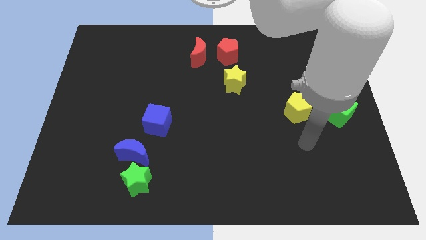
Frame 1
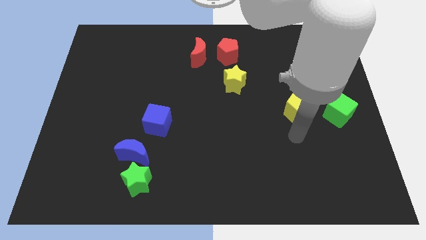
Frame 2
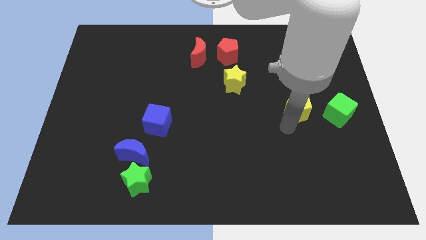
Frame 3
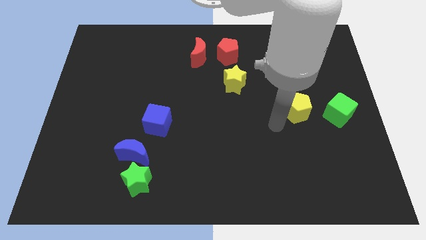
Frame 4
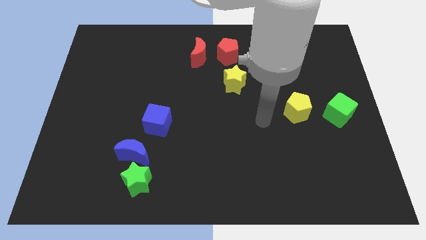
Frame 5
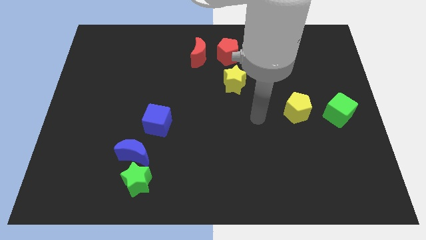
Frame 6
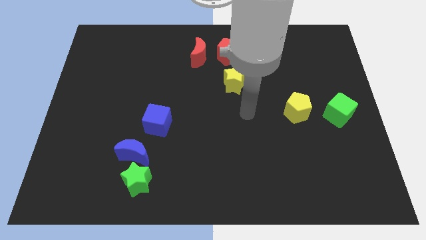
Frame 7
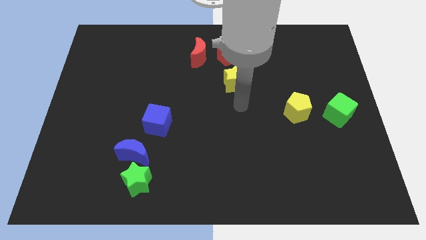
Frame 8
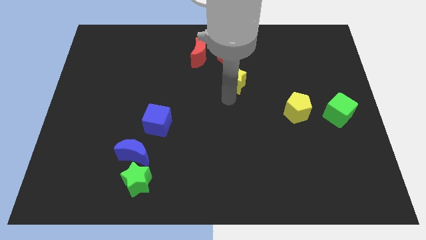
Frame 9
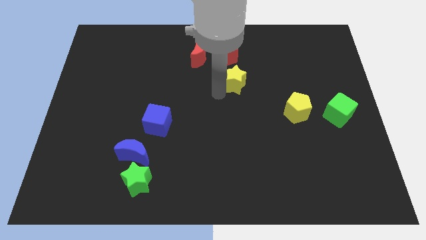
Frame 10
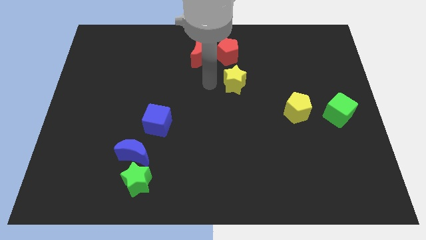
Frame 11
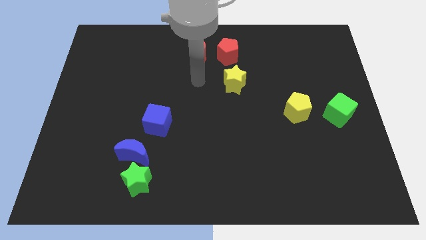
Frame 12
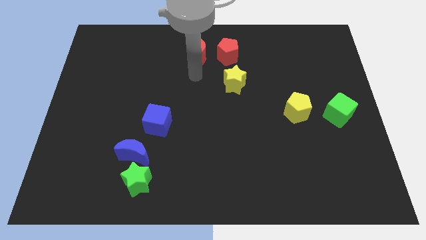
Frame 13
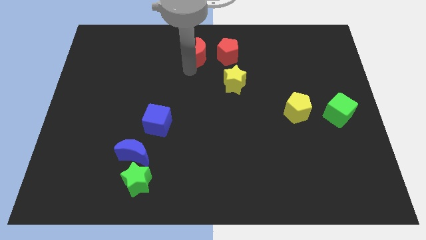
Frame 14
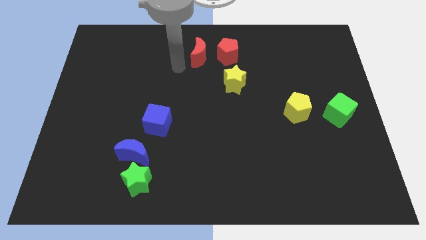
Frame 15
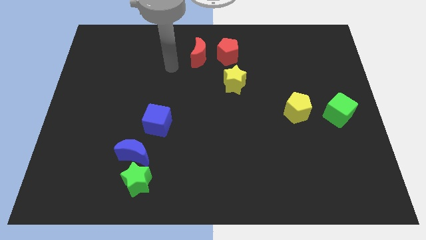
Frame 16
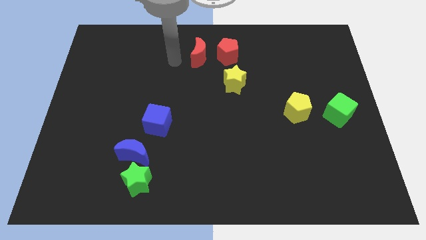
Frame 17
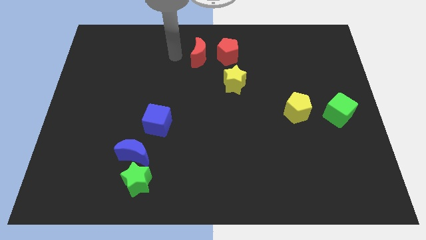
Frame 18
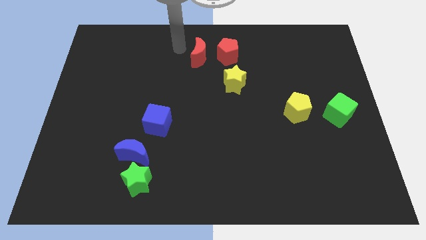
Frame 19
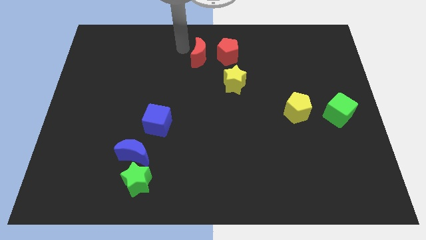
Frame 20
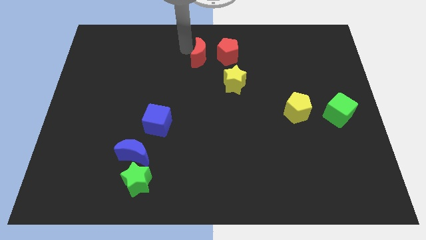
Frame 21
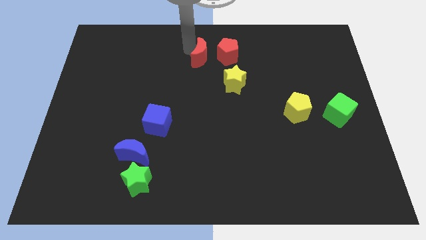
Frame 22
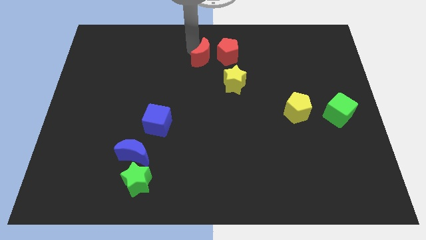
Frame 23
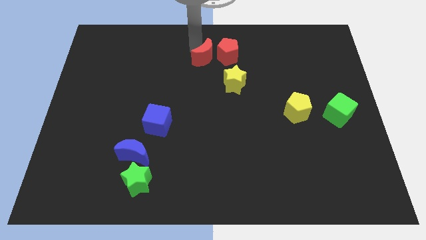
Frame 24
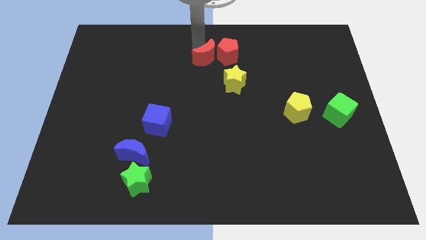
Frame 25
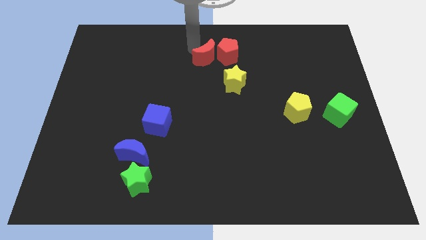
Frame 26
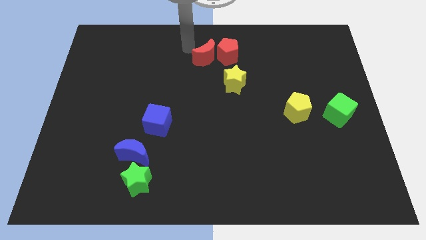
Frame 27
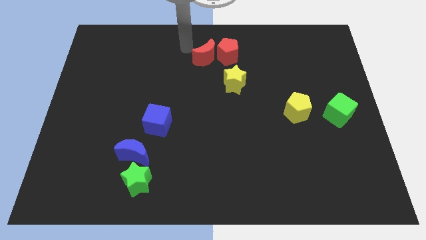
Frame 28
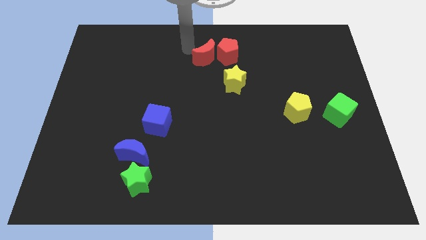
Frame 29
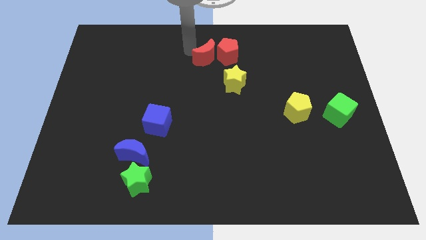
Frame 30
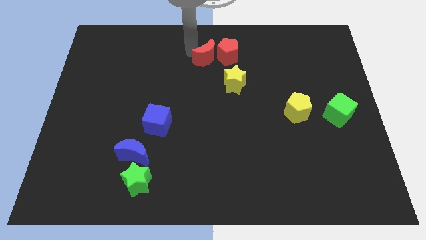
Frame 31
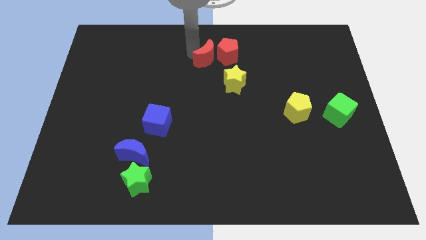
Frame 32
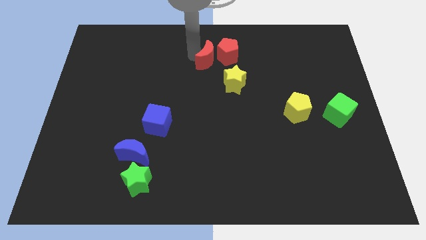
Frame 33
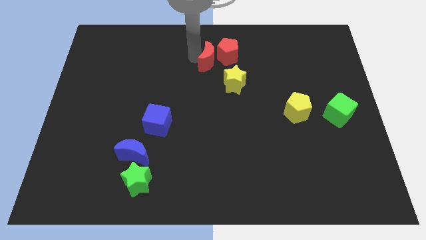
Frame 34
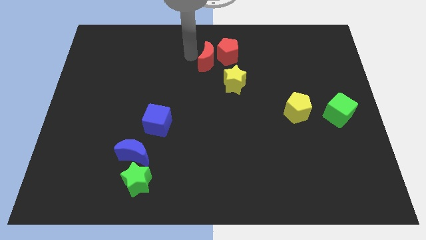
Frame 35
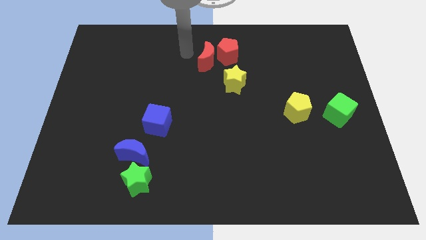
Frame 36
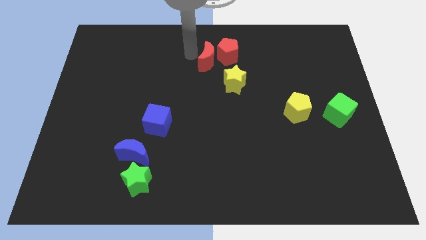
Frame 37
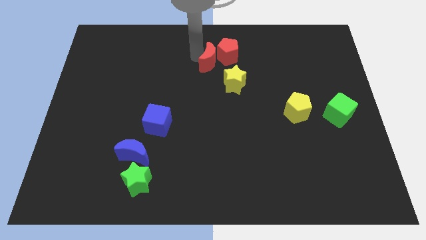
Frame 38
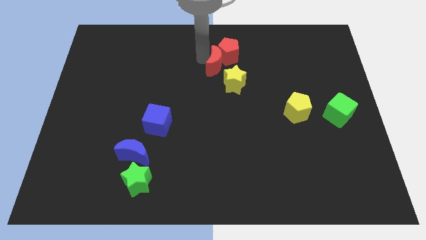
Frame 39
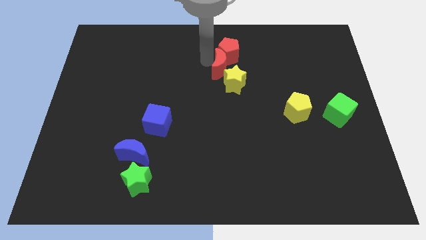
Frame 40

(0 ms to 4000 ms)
slightly slide the red moon diagonally downwards and right

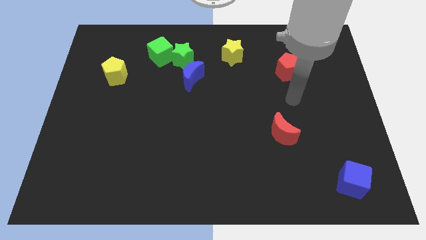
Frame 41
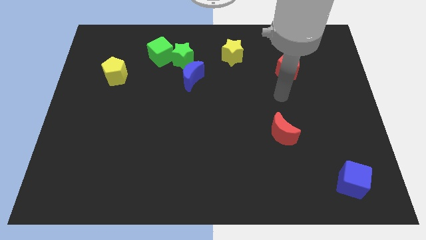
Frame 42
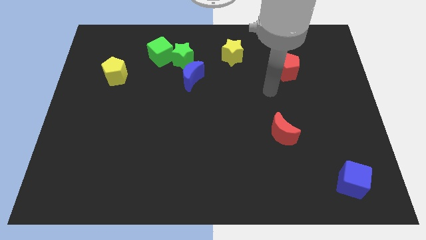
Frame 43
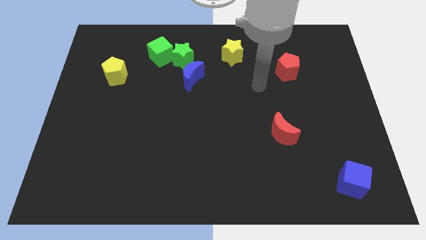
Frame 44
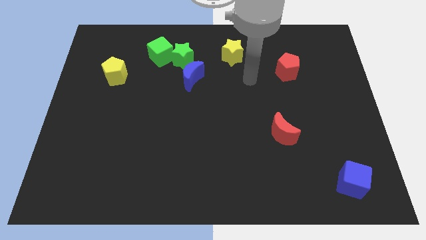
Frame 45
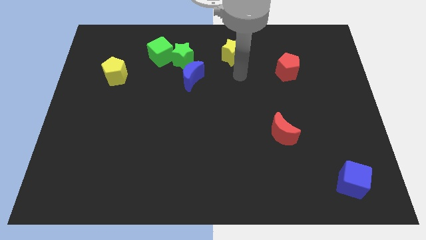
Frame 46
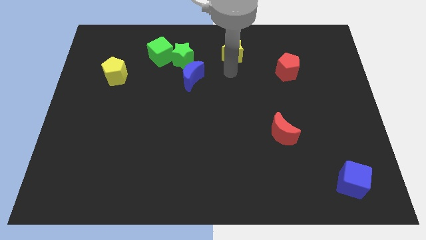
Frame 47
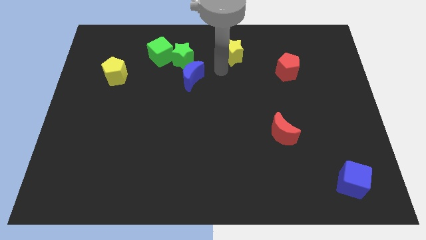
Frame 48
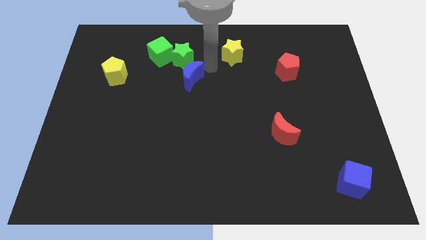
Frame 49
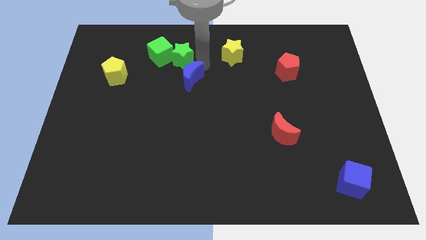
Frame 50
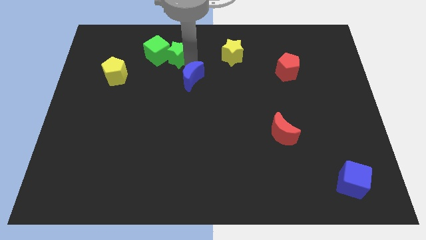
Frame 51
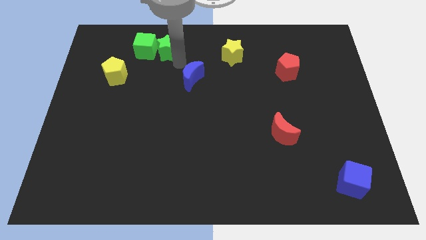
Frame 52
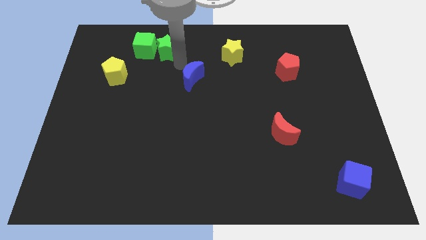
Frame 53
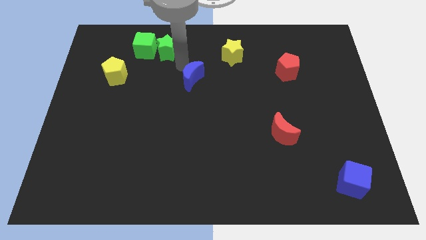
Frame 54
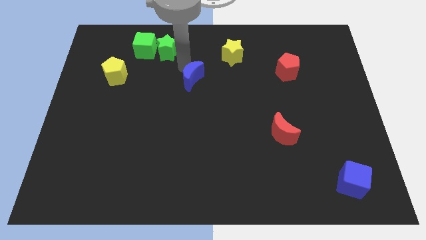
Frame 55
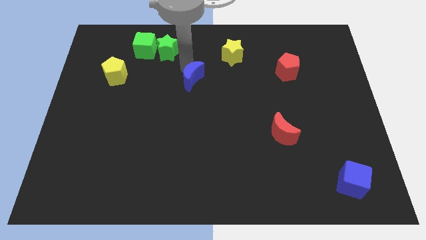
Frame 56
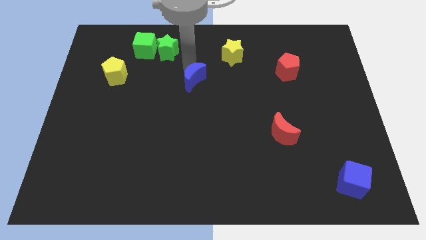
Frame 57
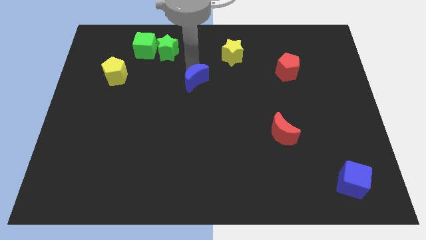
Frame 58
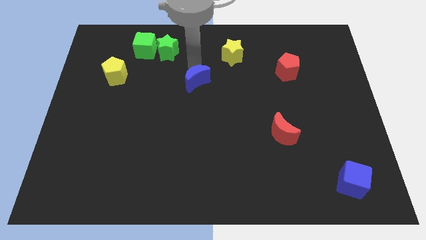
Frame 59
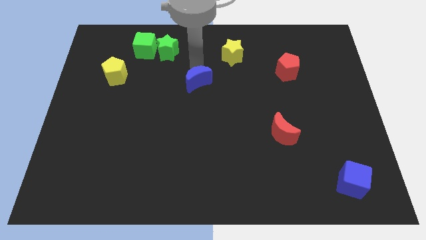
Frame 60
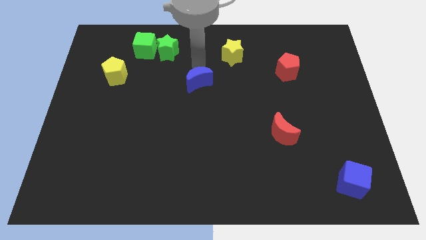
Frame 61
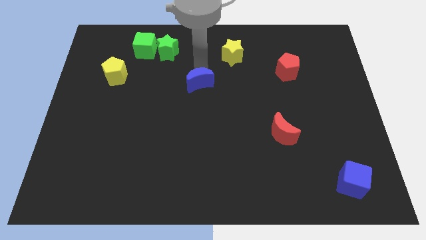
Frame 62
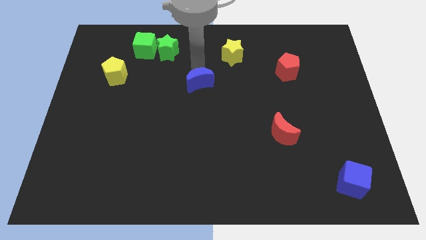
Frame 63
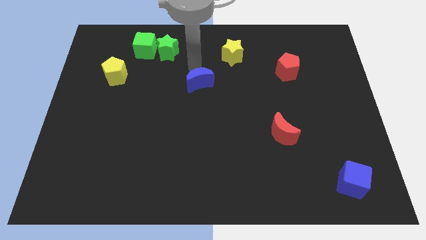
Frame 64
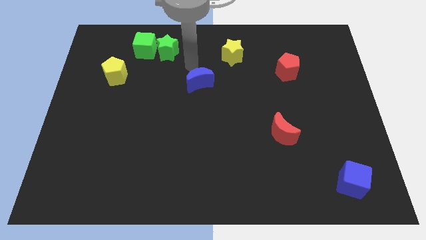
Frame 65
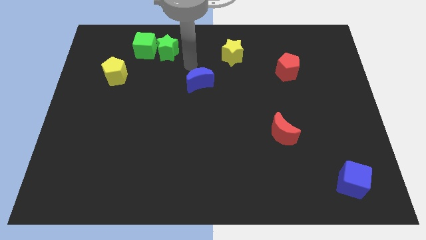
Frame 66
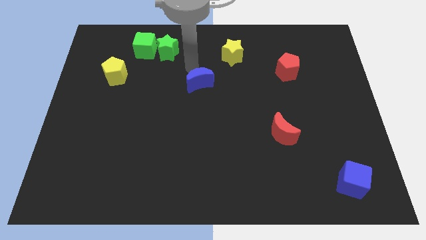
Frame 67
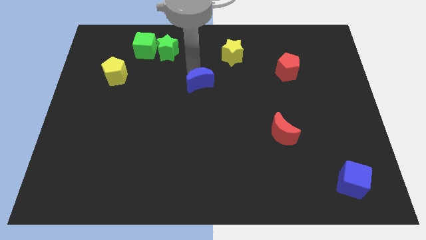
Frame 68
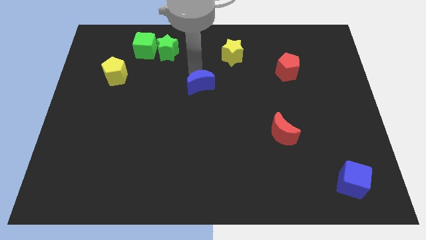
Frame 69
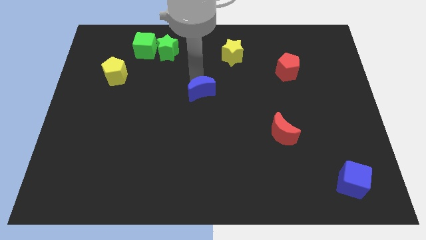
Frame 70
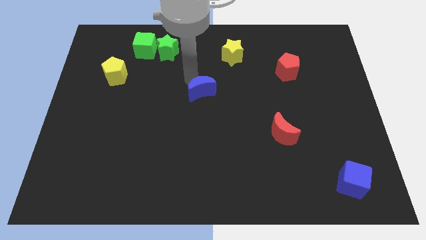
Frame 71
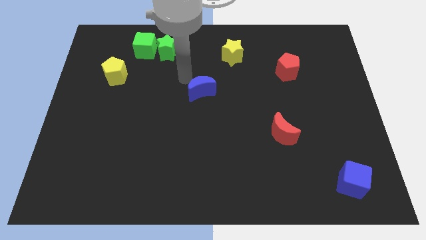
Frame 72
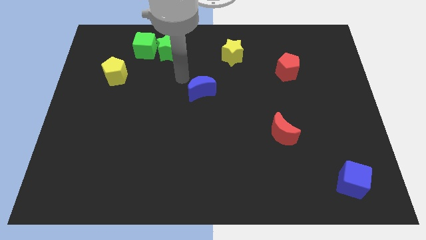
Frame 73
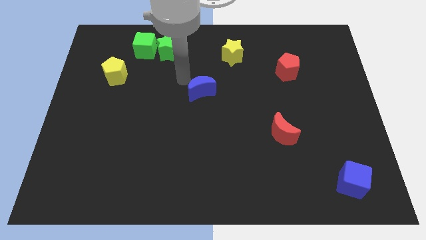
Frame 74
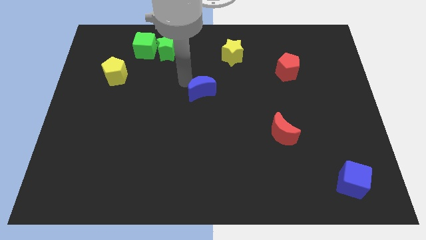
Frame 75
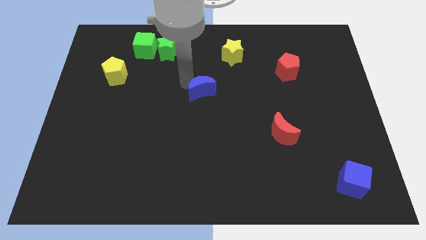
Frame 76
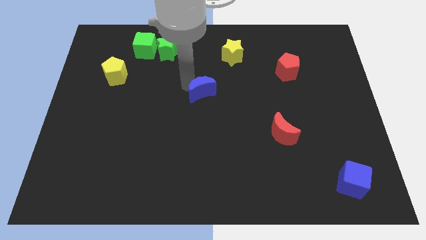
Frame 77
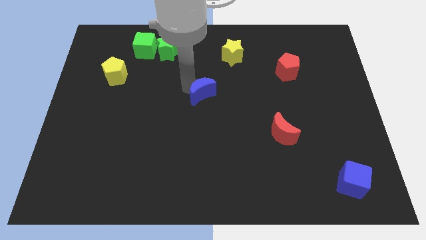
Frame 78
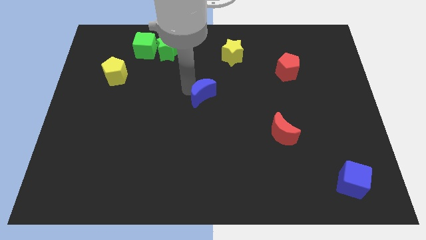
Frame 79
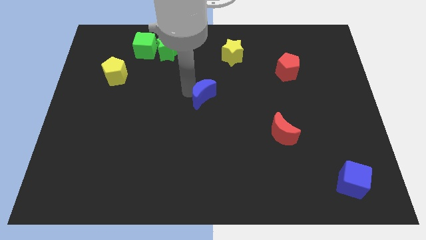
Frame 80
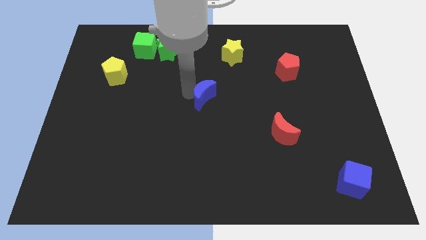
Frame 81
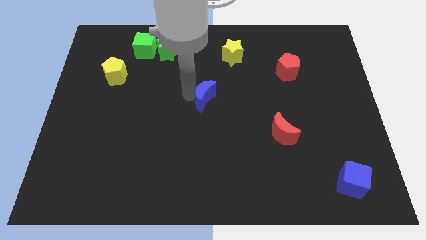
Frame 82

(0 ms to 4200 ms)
push the blue moon a little bit down and right diagonally
